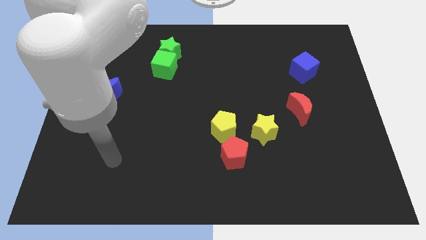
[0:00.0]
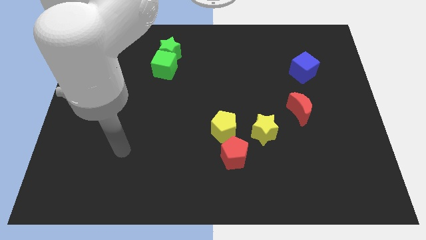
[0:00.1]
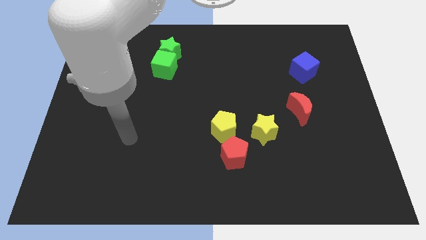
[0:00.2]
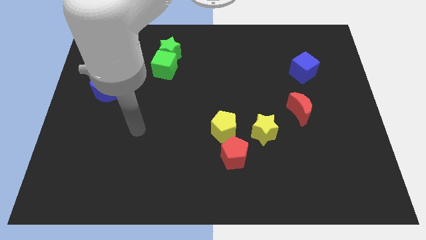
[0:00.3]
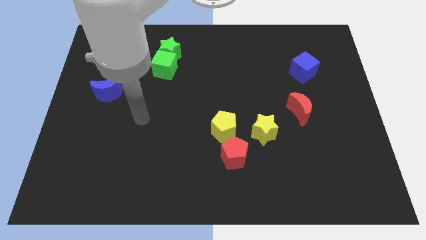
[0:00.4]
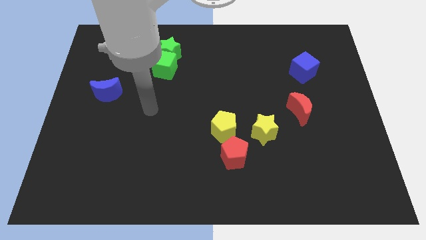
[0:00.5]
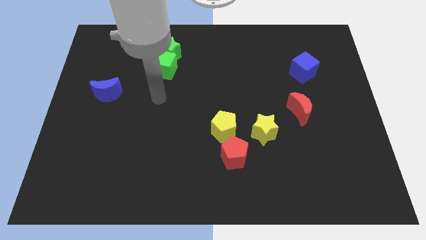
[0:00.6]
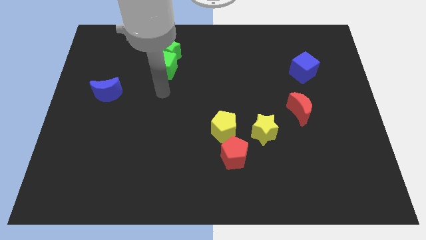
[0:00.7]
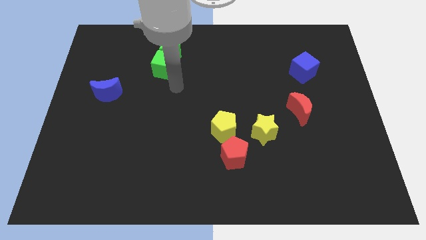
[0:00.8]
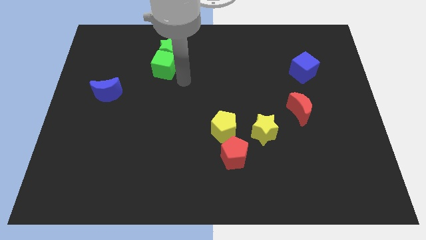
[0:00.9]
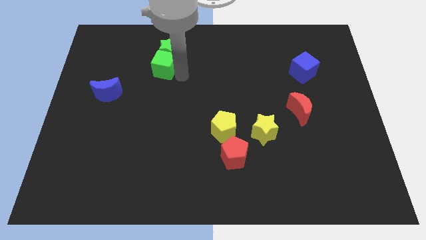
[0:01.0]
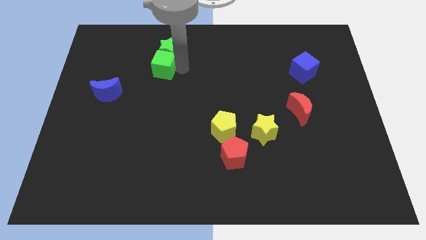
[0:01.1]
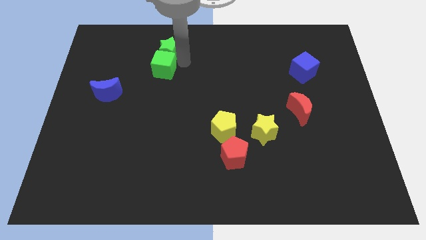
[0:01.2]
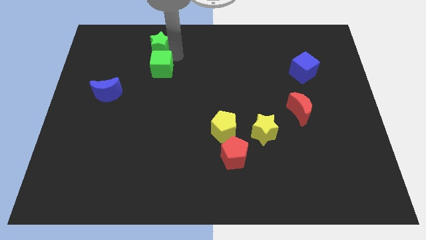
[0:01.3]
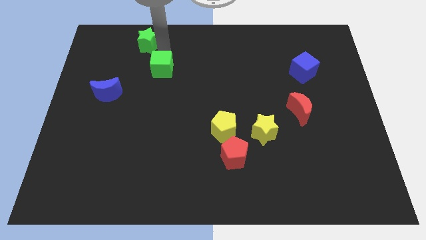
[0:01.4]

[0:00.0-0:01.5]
move the green cube away from the green star

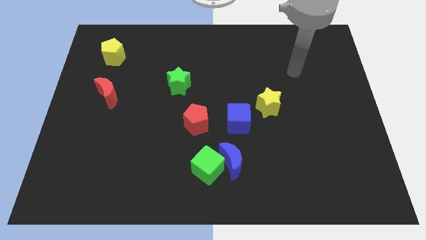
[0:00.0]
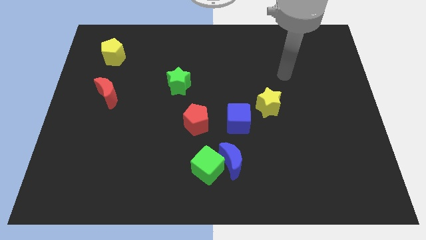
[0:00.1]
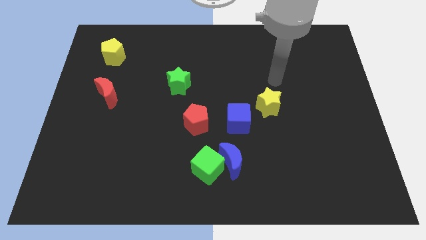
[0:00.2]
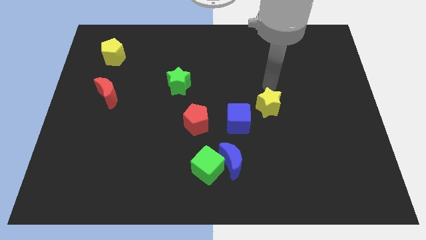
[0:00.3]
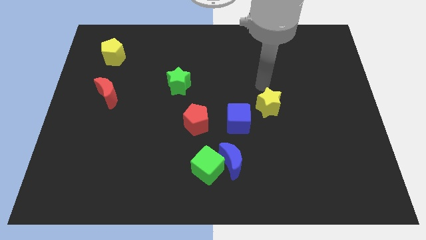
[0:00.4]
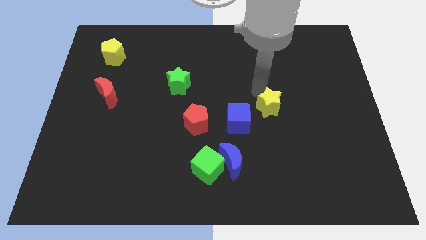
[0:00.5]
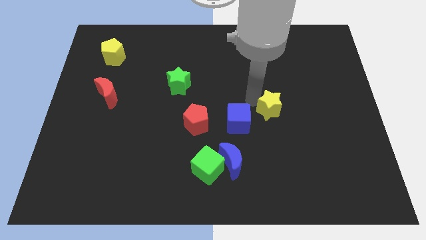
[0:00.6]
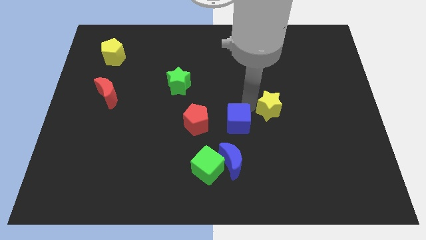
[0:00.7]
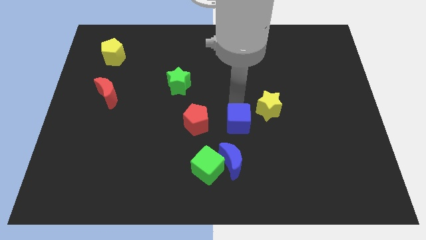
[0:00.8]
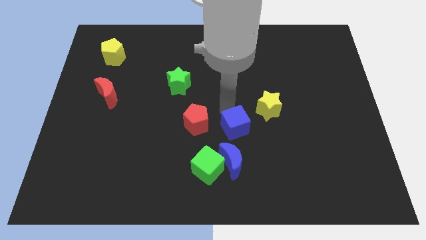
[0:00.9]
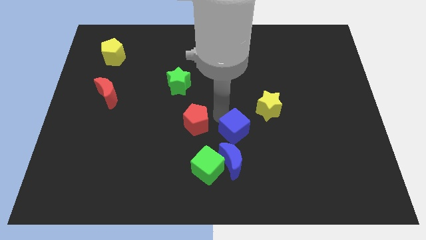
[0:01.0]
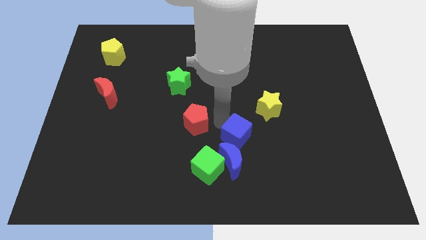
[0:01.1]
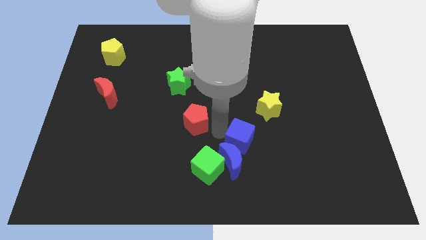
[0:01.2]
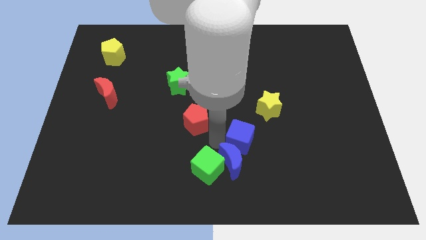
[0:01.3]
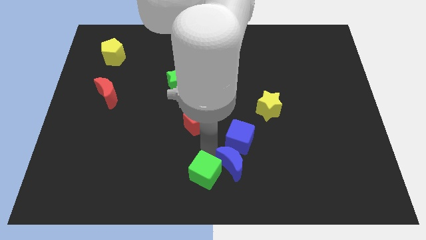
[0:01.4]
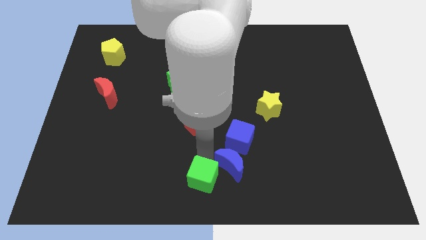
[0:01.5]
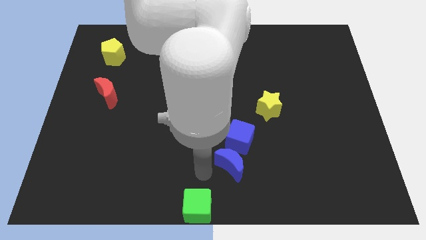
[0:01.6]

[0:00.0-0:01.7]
separate the blue moon from the green cube

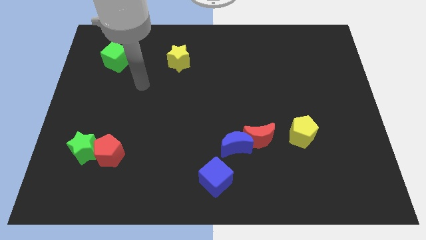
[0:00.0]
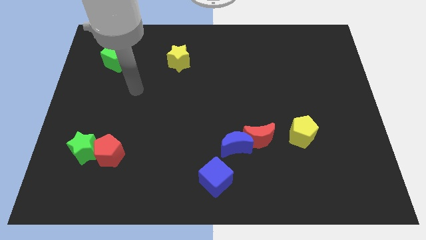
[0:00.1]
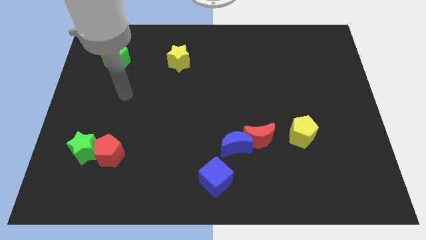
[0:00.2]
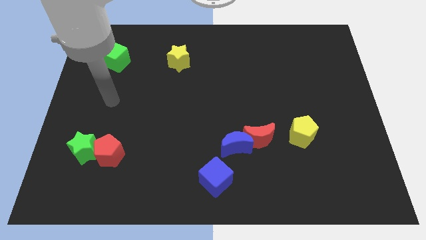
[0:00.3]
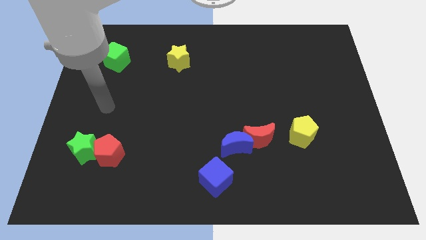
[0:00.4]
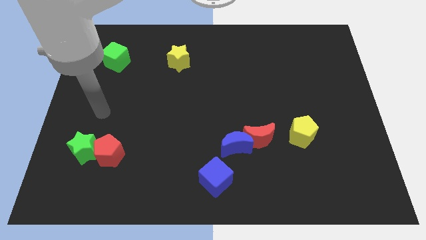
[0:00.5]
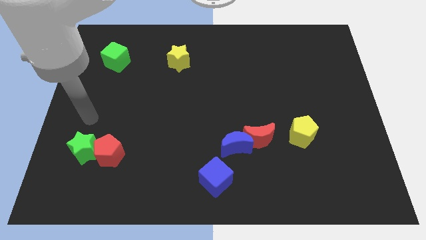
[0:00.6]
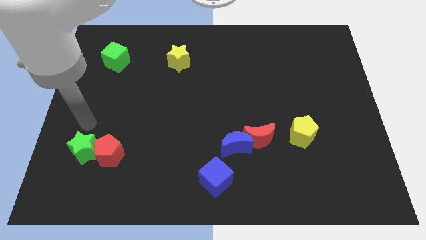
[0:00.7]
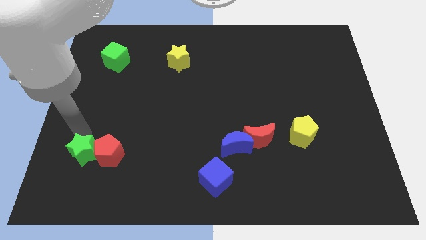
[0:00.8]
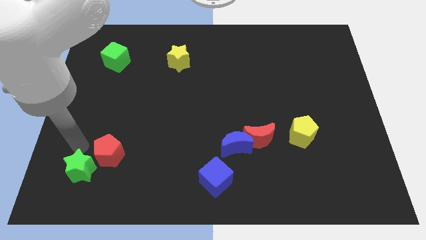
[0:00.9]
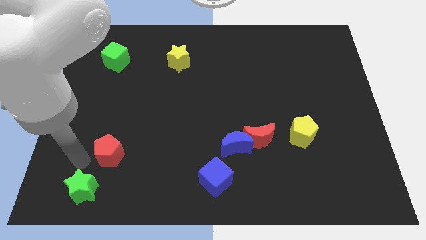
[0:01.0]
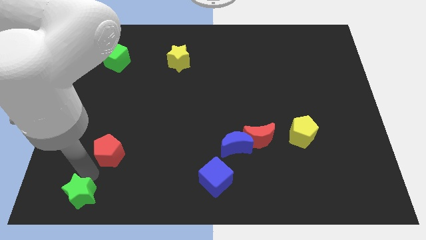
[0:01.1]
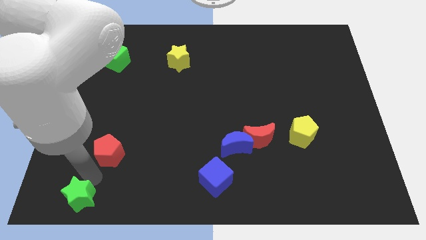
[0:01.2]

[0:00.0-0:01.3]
separate the red pentagon from the green star

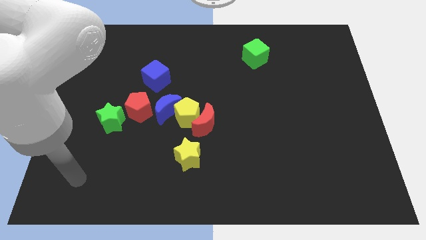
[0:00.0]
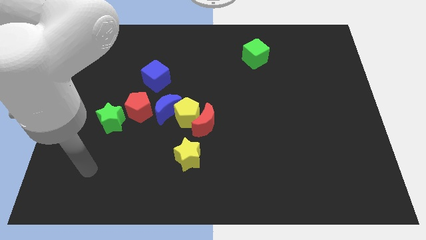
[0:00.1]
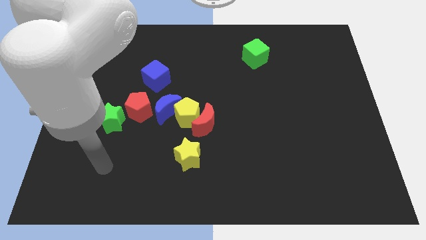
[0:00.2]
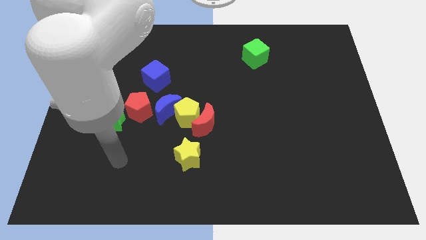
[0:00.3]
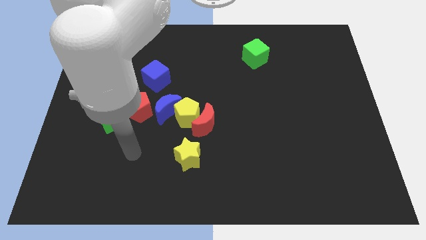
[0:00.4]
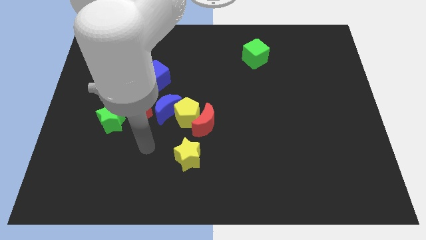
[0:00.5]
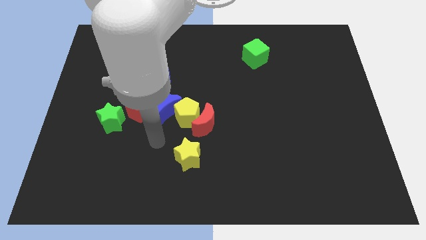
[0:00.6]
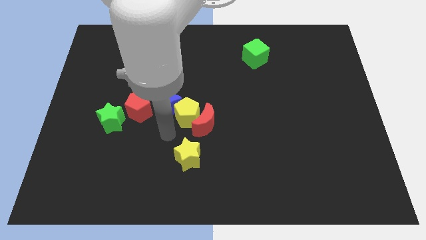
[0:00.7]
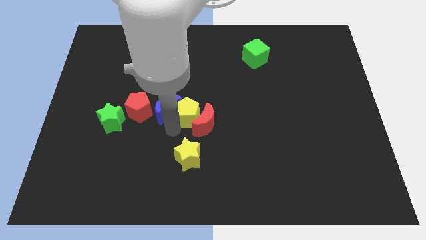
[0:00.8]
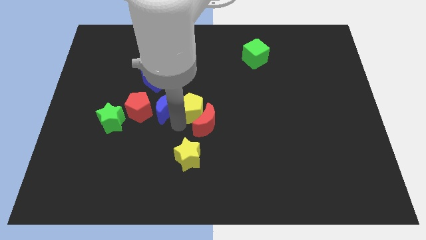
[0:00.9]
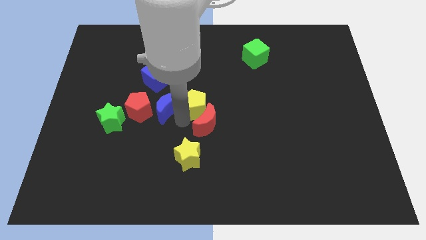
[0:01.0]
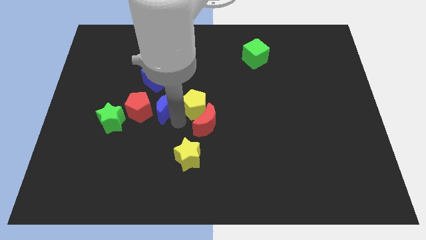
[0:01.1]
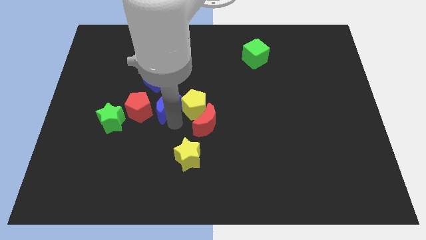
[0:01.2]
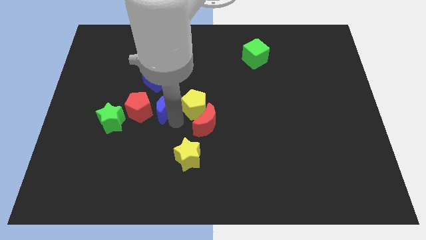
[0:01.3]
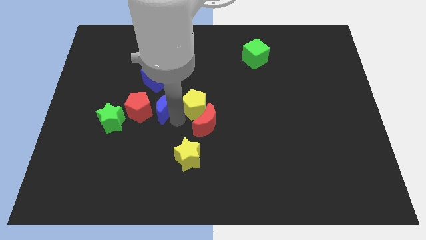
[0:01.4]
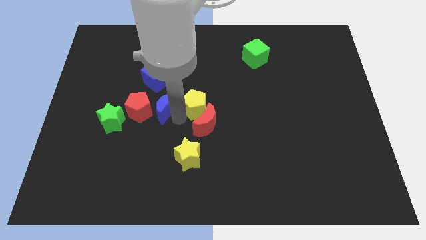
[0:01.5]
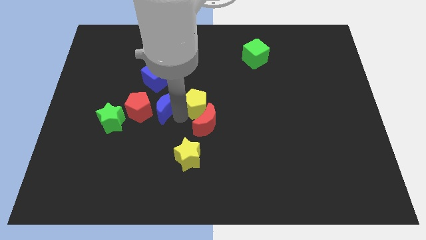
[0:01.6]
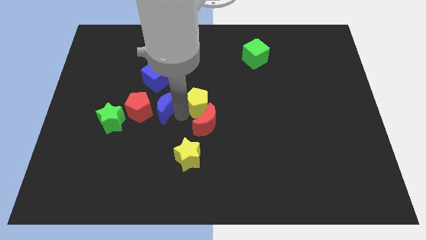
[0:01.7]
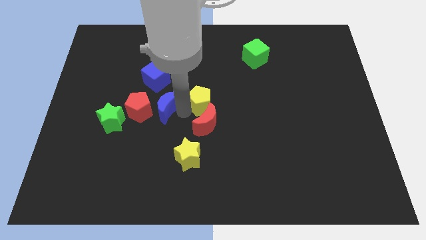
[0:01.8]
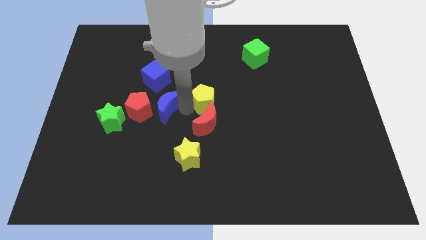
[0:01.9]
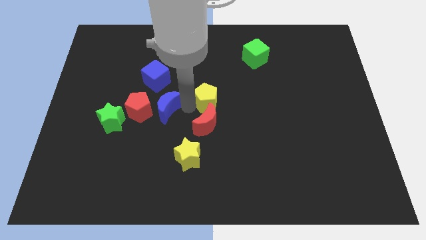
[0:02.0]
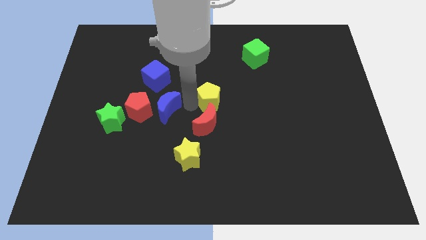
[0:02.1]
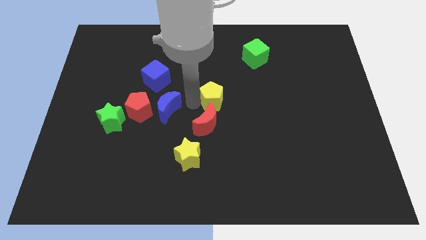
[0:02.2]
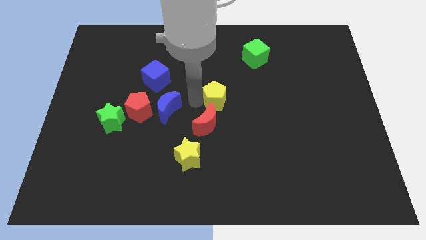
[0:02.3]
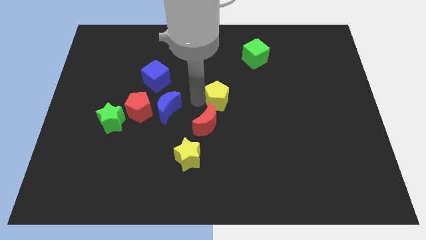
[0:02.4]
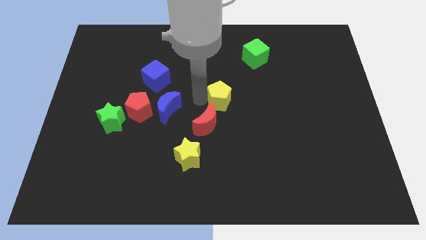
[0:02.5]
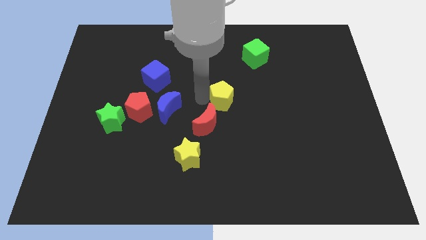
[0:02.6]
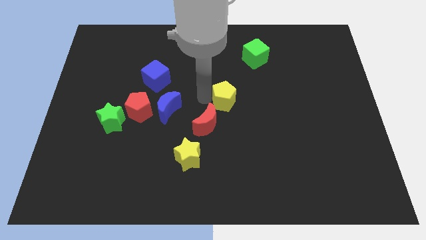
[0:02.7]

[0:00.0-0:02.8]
separate the yellow pentagon from the red moon and blue moon

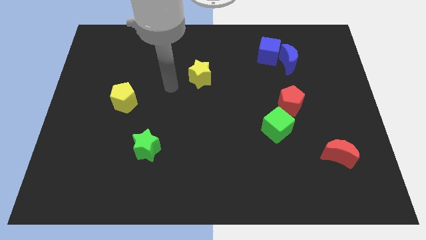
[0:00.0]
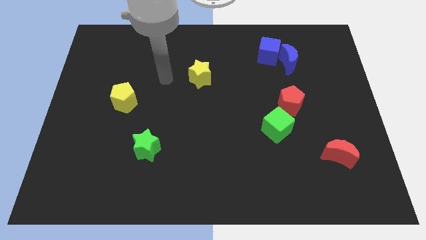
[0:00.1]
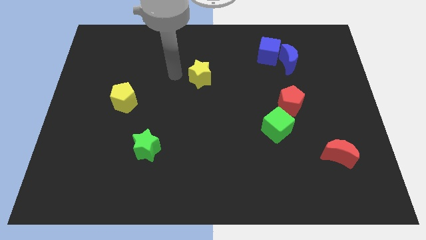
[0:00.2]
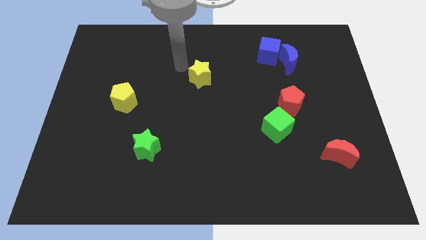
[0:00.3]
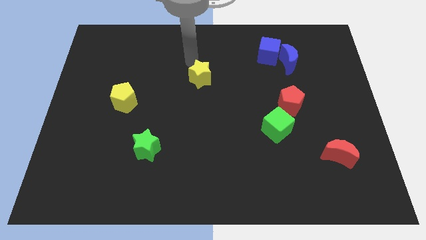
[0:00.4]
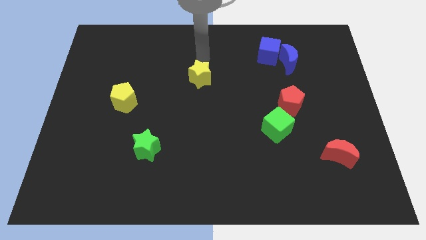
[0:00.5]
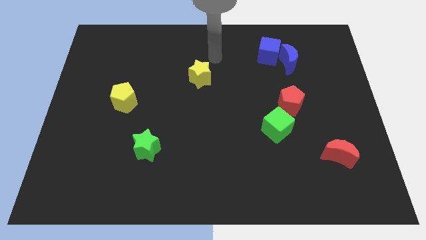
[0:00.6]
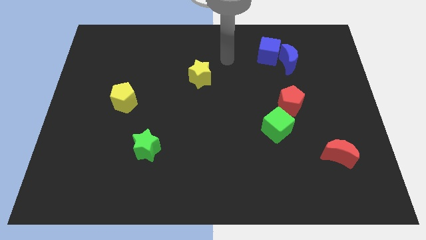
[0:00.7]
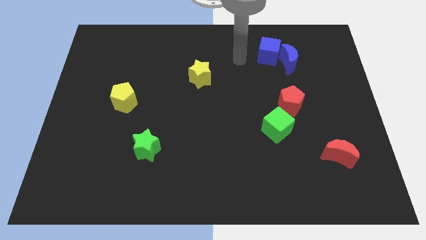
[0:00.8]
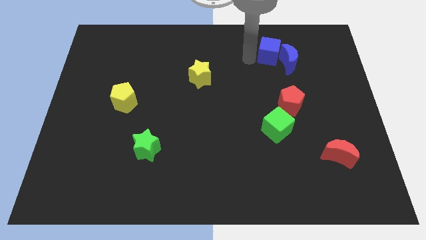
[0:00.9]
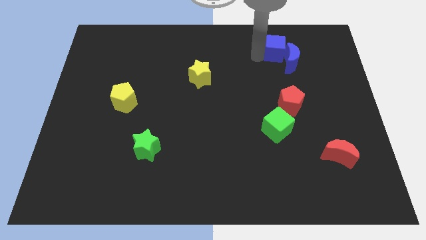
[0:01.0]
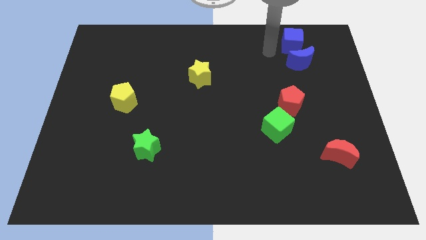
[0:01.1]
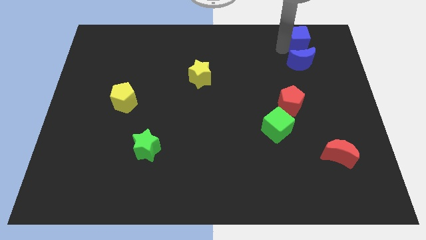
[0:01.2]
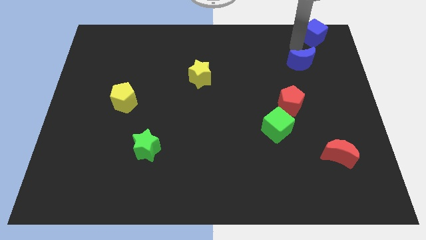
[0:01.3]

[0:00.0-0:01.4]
separate the blue moon from the blue cube

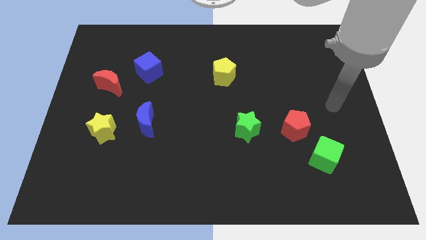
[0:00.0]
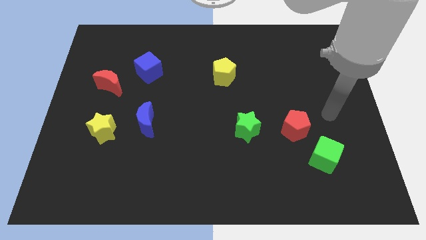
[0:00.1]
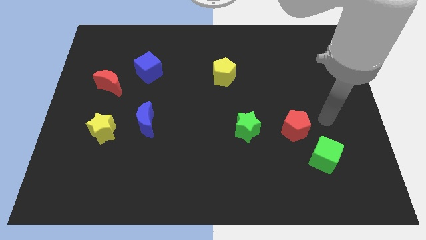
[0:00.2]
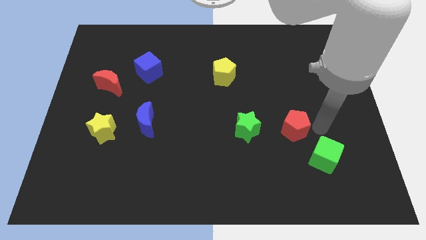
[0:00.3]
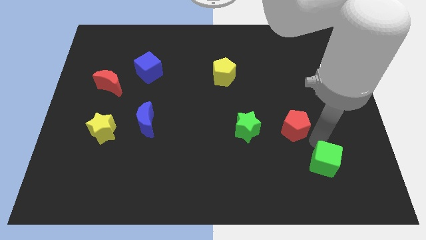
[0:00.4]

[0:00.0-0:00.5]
pull the red pentagon apart from the green cube

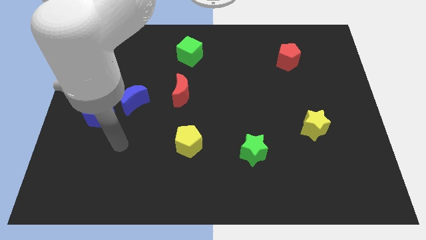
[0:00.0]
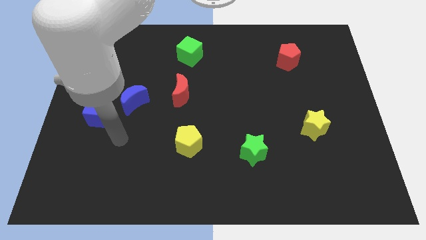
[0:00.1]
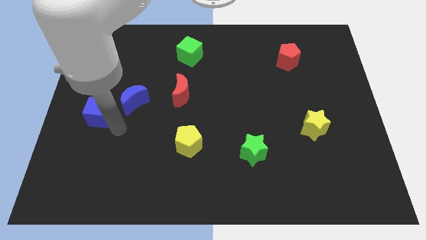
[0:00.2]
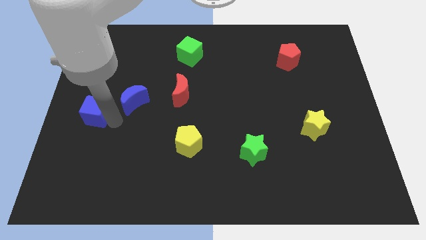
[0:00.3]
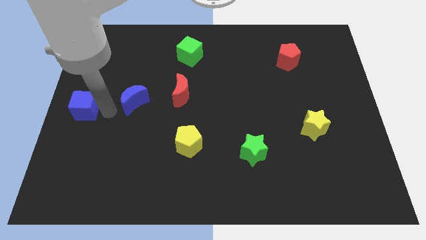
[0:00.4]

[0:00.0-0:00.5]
move the blue moon away from the blue cube
